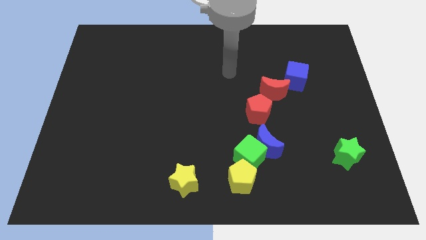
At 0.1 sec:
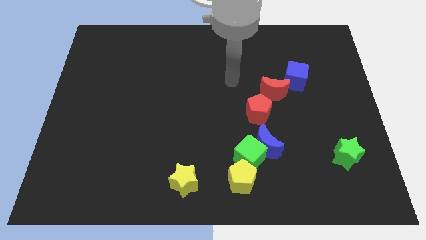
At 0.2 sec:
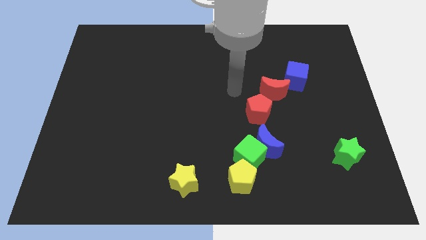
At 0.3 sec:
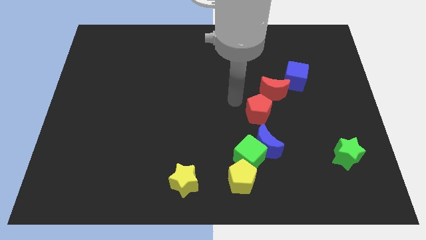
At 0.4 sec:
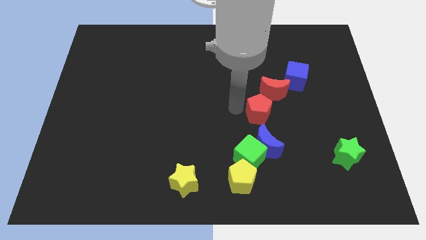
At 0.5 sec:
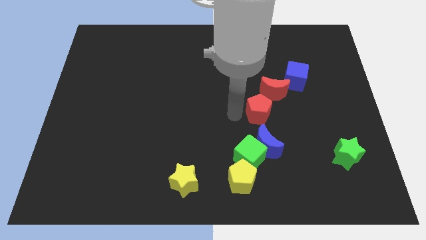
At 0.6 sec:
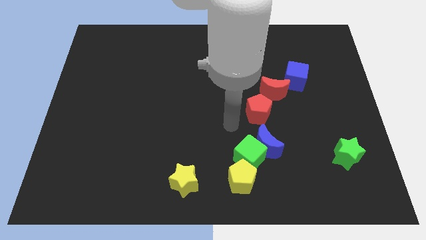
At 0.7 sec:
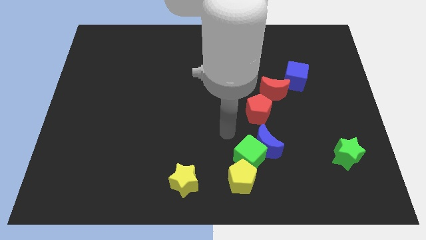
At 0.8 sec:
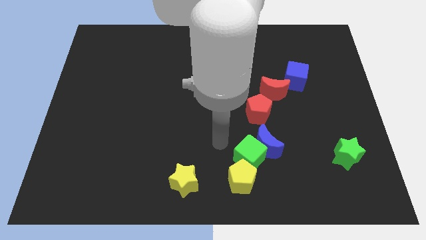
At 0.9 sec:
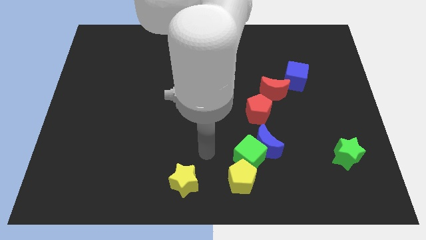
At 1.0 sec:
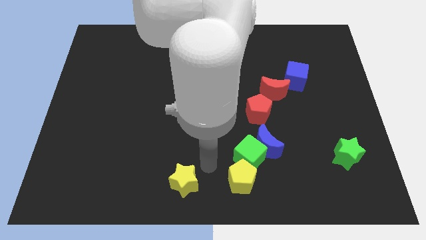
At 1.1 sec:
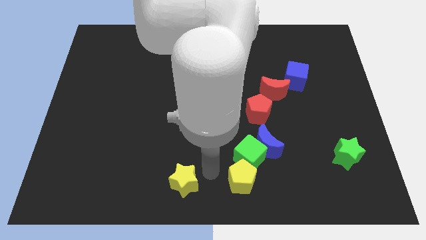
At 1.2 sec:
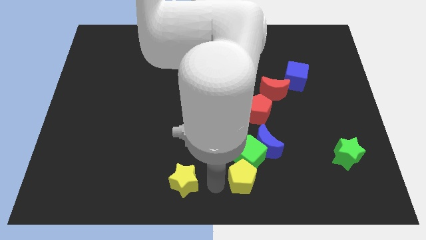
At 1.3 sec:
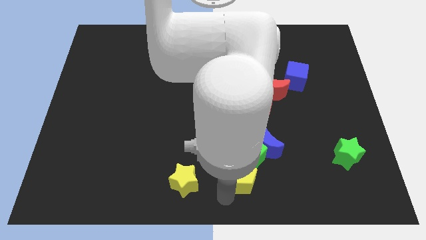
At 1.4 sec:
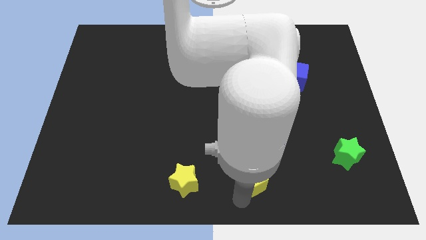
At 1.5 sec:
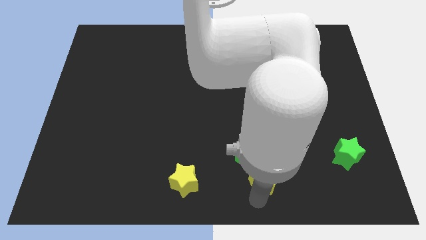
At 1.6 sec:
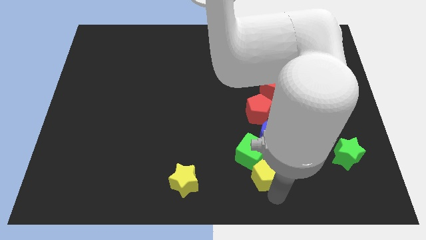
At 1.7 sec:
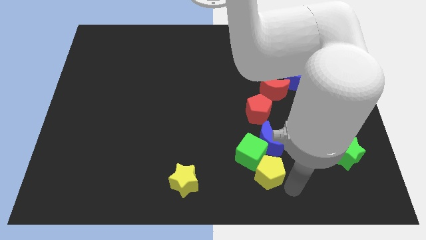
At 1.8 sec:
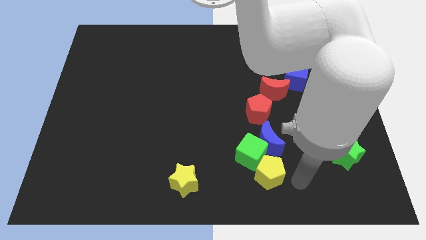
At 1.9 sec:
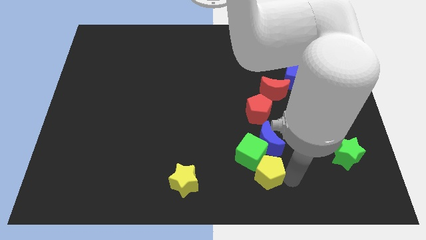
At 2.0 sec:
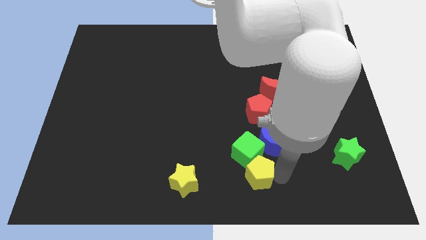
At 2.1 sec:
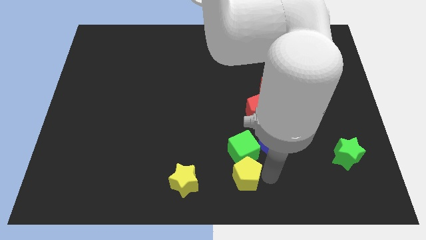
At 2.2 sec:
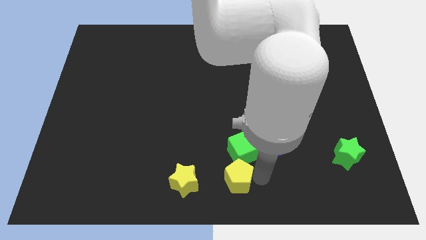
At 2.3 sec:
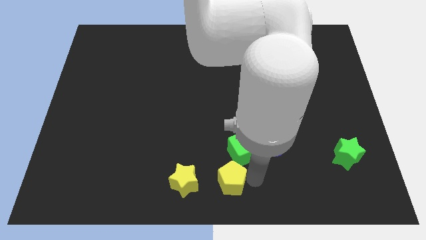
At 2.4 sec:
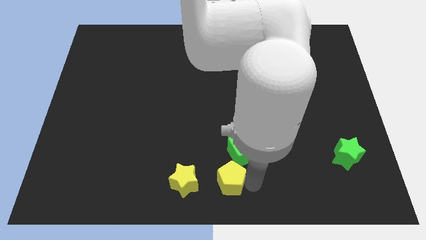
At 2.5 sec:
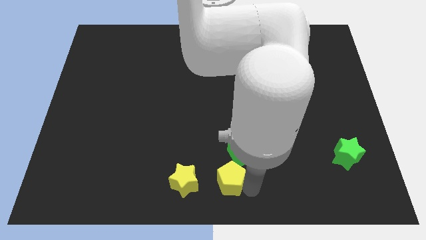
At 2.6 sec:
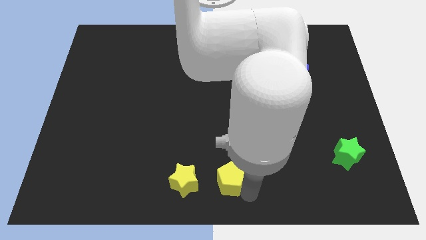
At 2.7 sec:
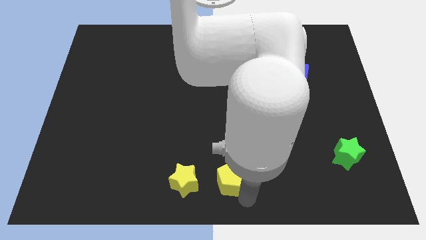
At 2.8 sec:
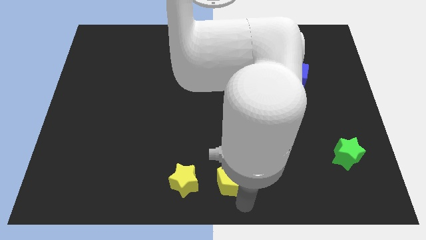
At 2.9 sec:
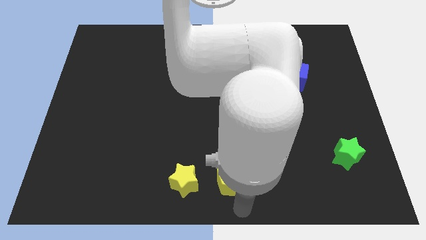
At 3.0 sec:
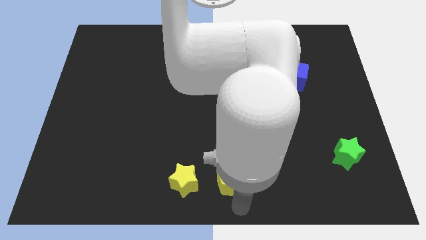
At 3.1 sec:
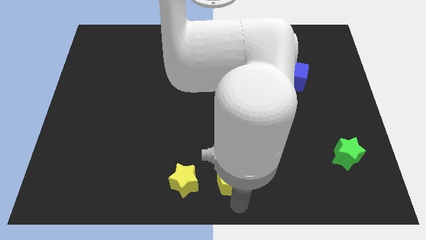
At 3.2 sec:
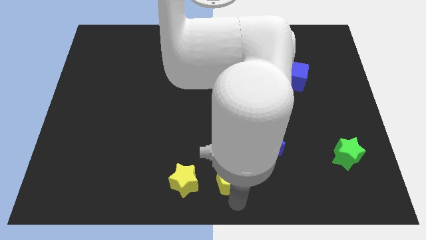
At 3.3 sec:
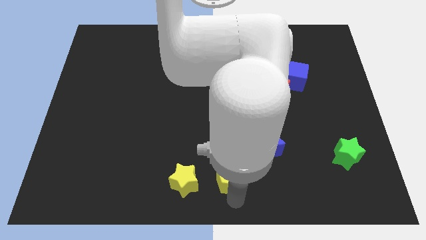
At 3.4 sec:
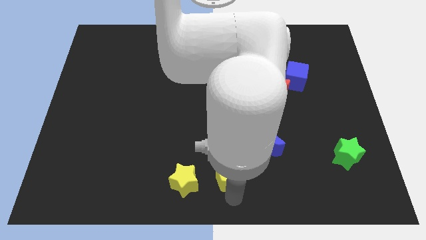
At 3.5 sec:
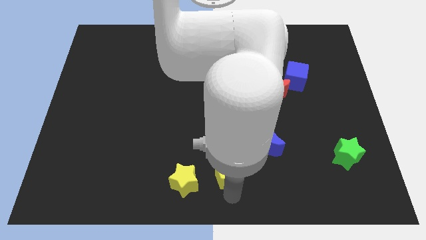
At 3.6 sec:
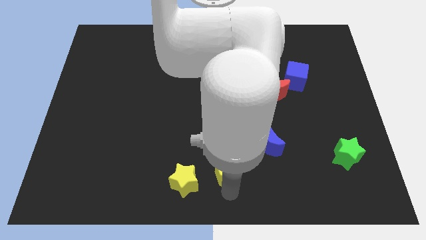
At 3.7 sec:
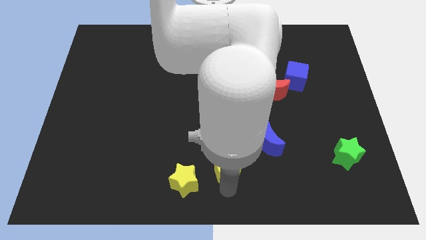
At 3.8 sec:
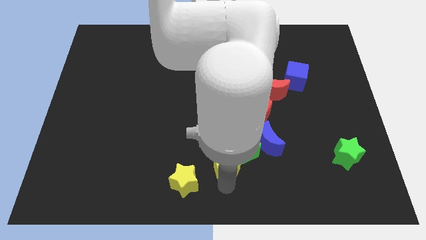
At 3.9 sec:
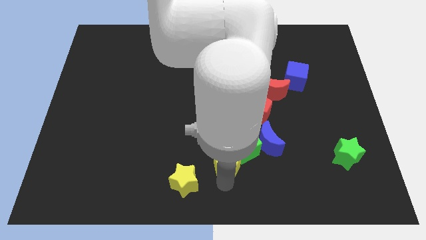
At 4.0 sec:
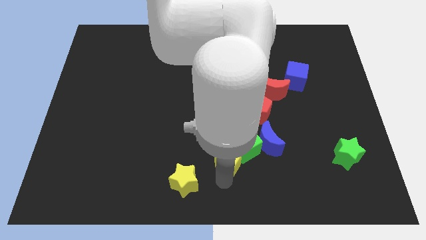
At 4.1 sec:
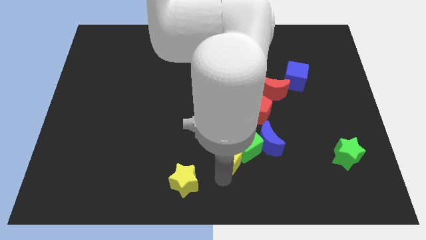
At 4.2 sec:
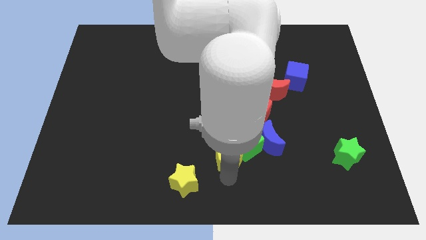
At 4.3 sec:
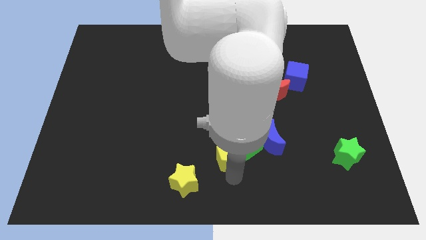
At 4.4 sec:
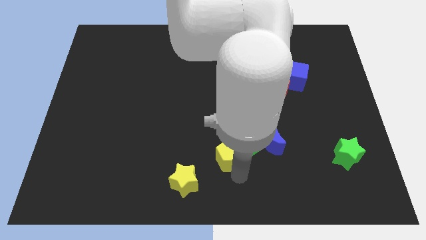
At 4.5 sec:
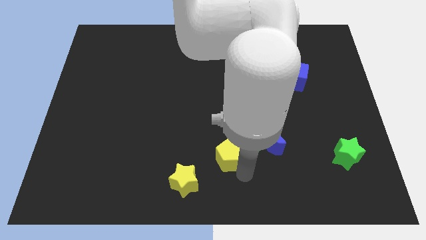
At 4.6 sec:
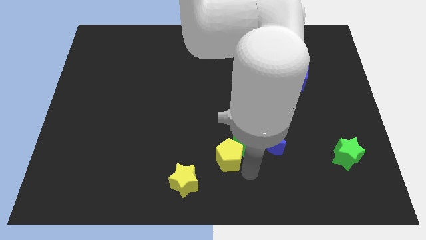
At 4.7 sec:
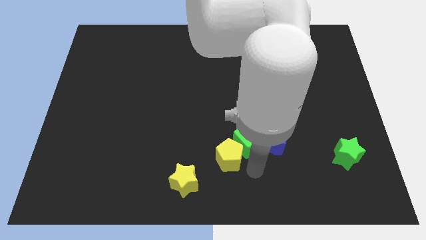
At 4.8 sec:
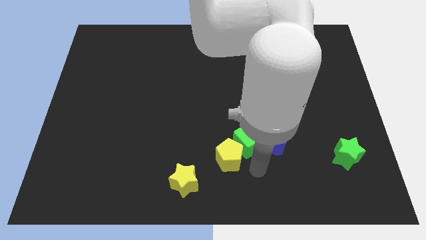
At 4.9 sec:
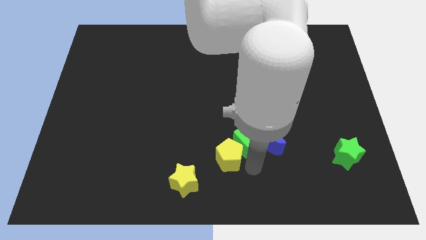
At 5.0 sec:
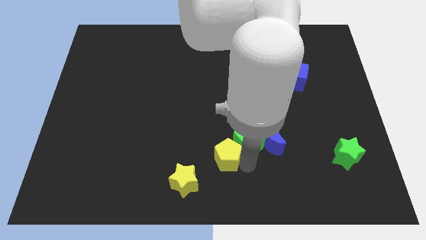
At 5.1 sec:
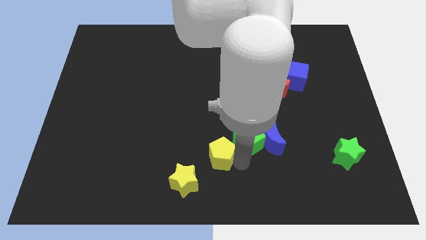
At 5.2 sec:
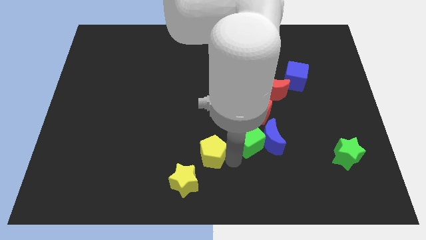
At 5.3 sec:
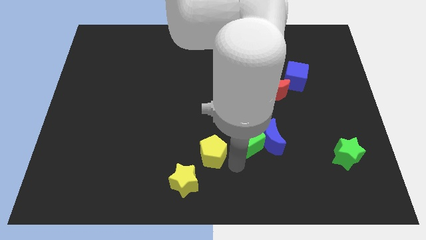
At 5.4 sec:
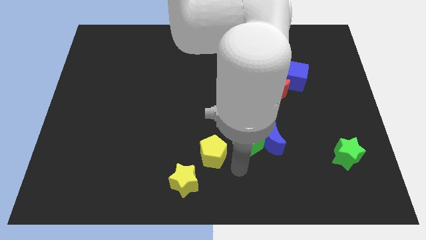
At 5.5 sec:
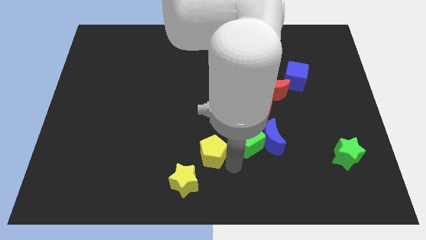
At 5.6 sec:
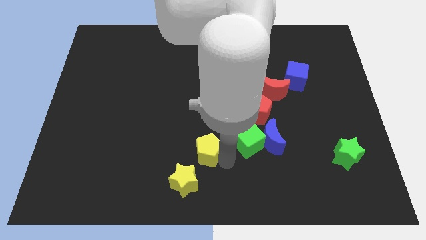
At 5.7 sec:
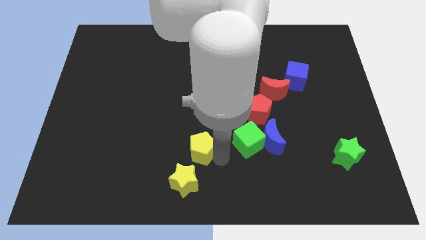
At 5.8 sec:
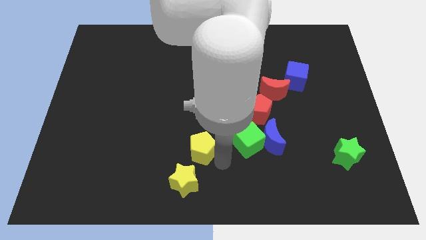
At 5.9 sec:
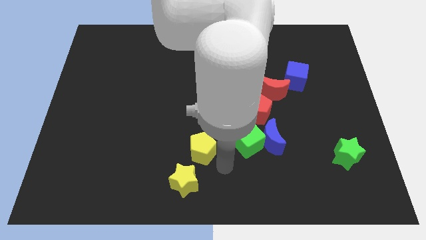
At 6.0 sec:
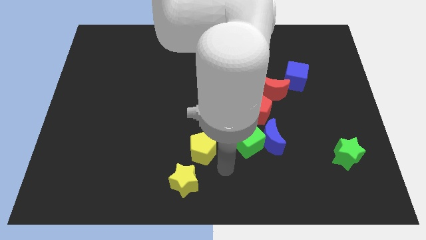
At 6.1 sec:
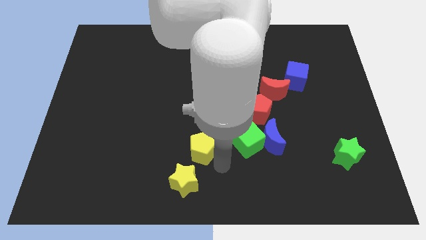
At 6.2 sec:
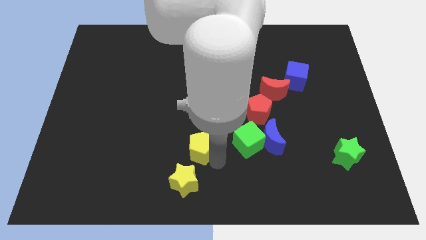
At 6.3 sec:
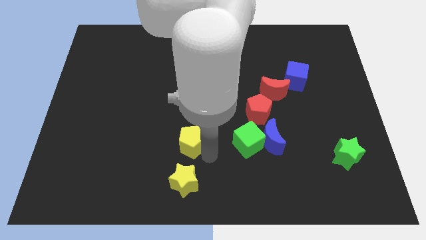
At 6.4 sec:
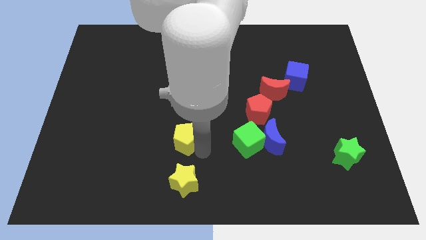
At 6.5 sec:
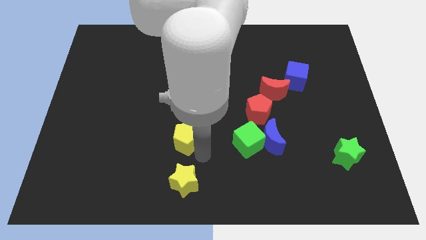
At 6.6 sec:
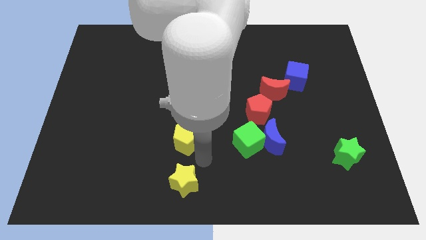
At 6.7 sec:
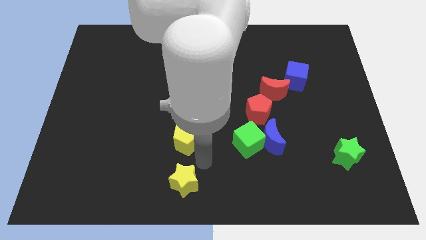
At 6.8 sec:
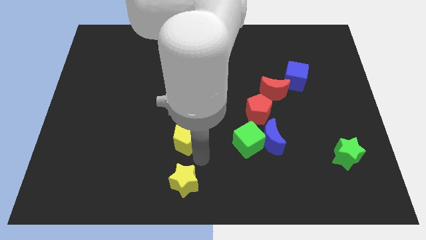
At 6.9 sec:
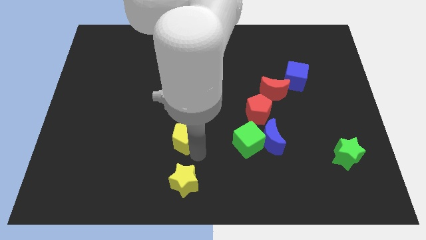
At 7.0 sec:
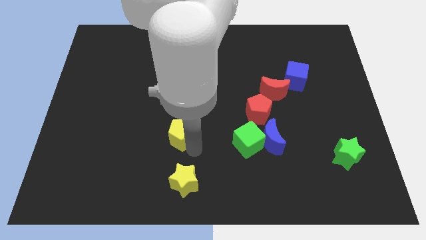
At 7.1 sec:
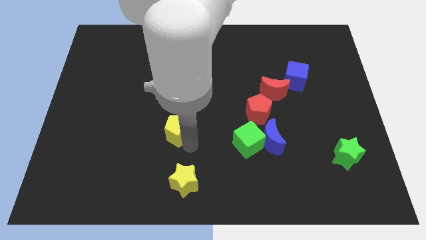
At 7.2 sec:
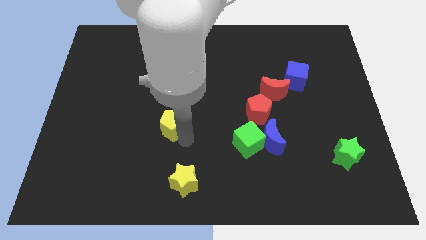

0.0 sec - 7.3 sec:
push the yellow pentagon up and to the left

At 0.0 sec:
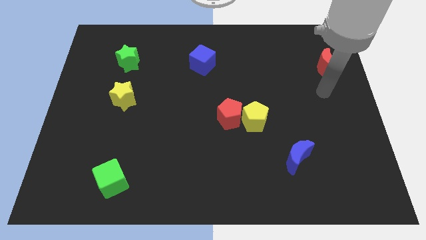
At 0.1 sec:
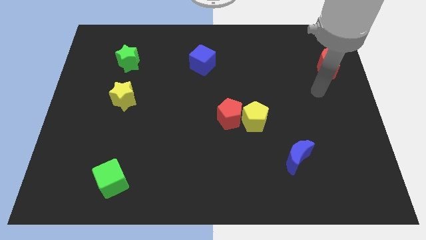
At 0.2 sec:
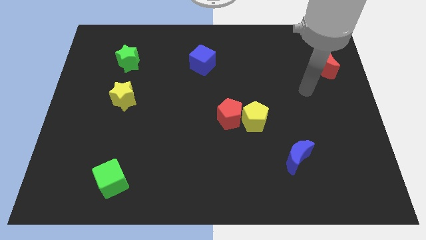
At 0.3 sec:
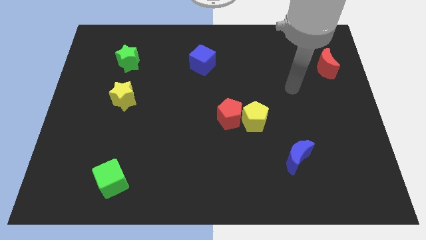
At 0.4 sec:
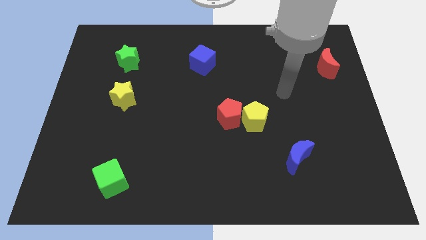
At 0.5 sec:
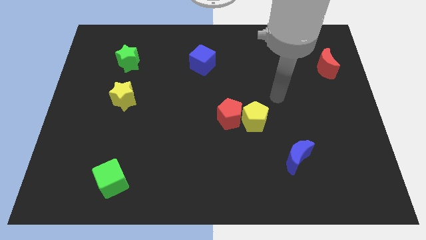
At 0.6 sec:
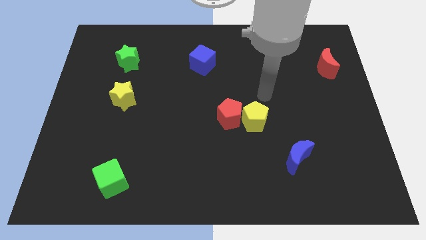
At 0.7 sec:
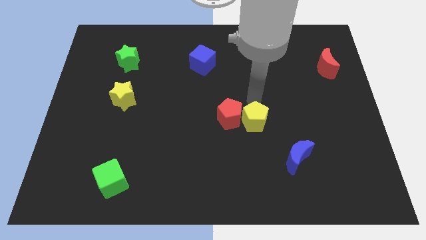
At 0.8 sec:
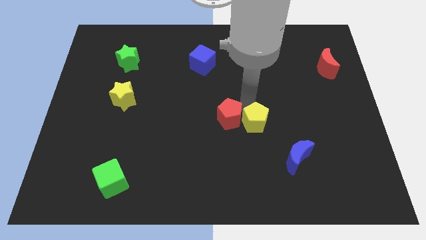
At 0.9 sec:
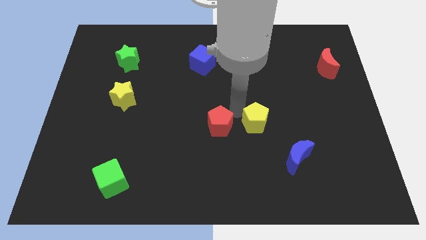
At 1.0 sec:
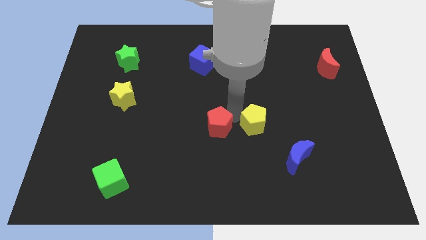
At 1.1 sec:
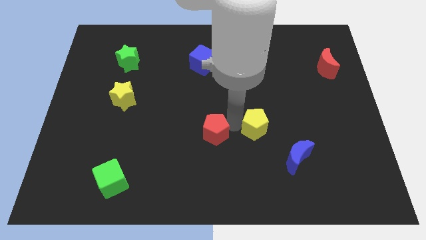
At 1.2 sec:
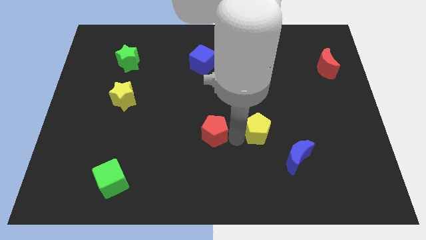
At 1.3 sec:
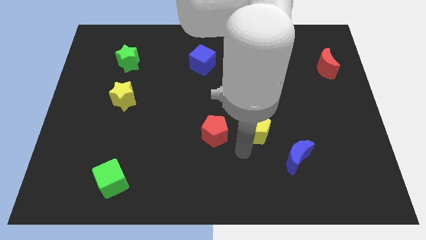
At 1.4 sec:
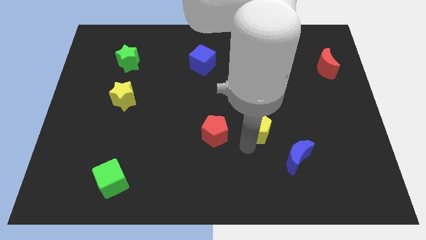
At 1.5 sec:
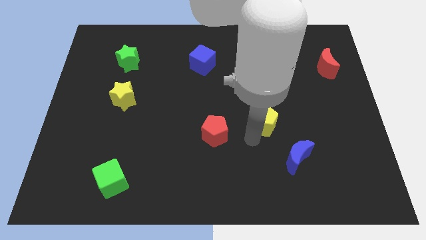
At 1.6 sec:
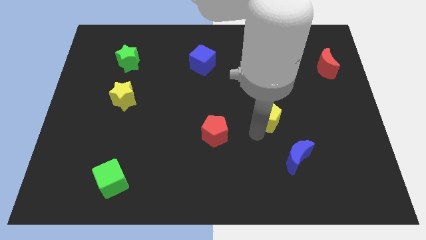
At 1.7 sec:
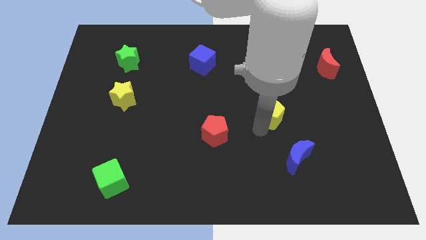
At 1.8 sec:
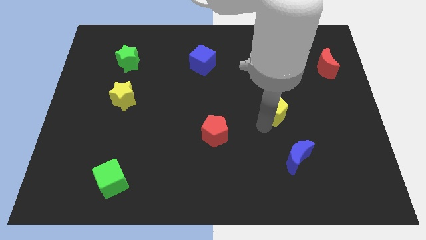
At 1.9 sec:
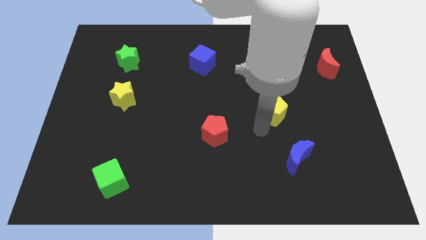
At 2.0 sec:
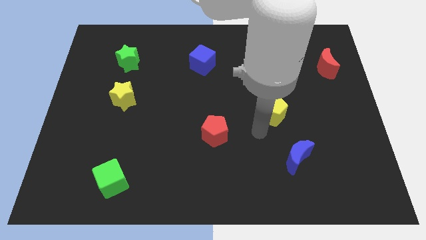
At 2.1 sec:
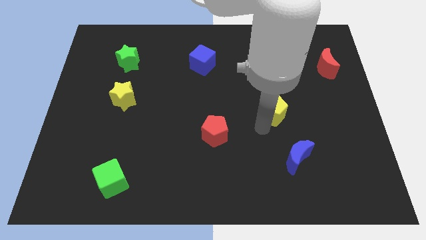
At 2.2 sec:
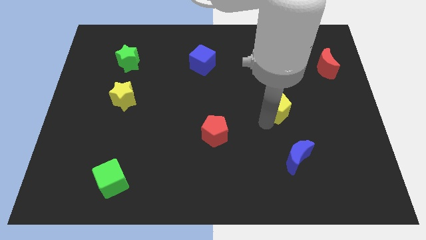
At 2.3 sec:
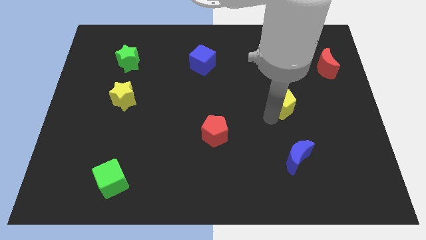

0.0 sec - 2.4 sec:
slightly push the yellow pentagon up and then to the right
